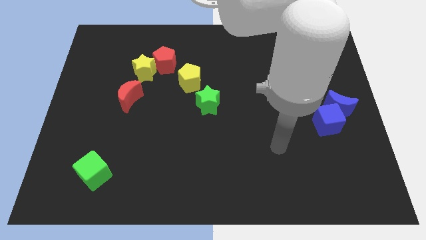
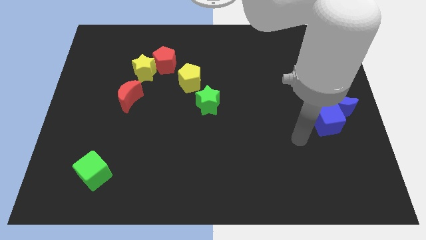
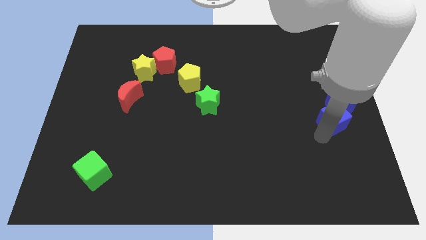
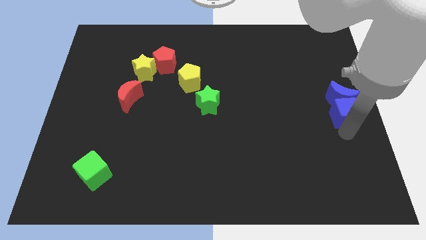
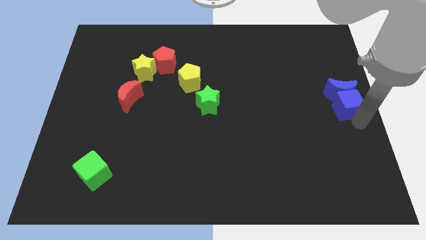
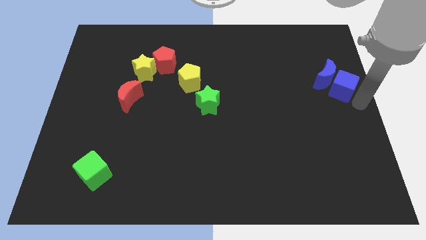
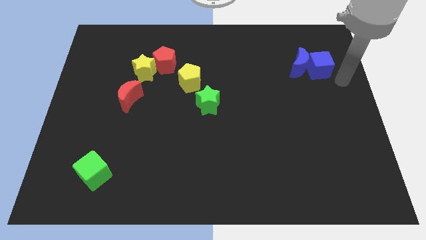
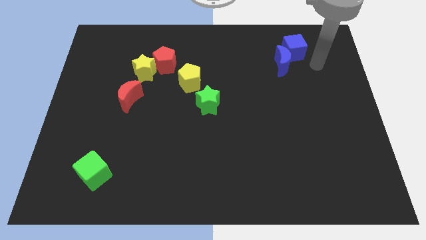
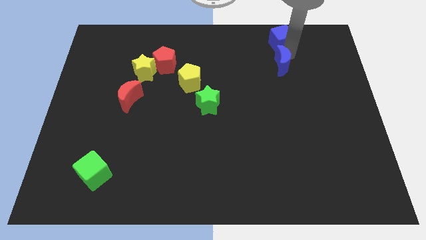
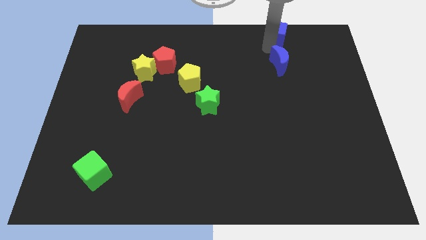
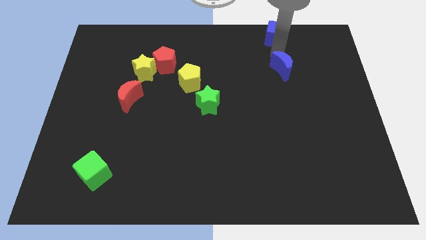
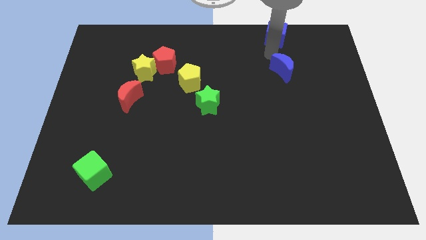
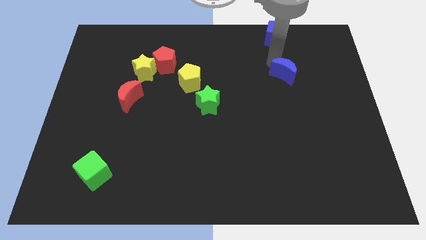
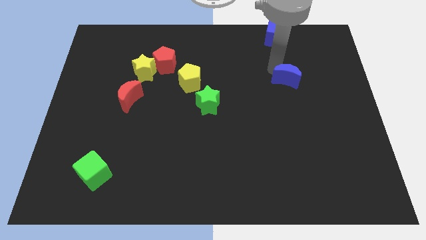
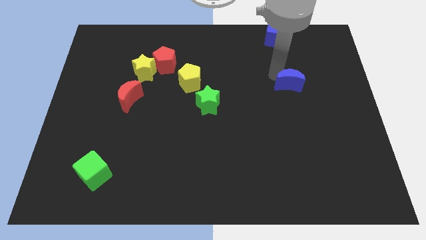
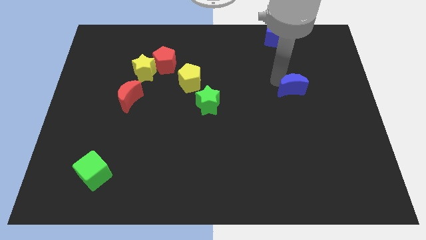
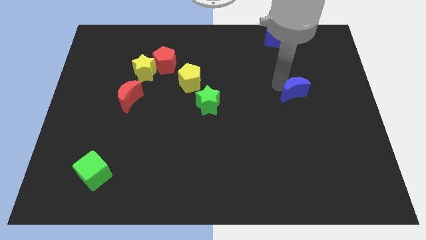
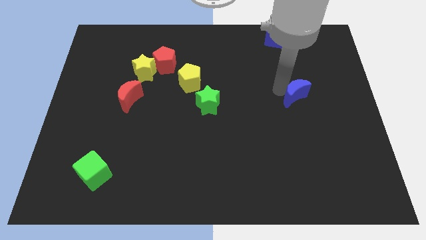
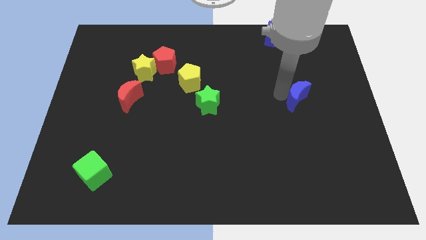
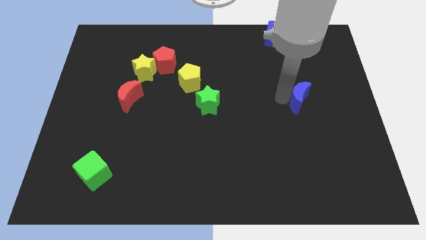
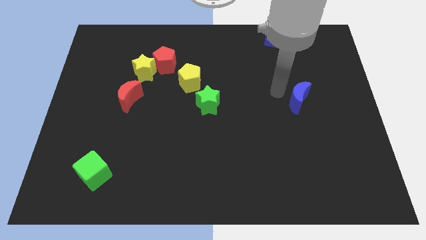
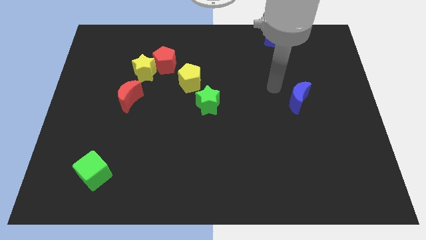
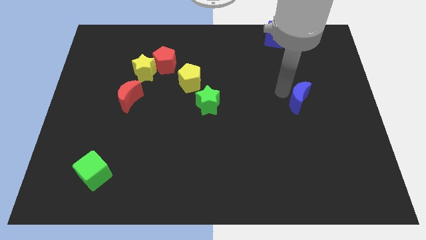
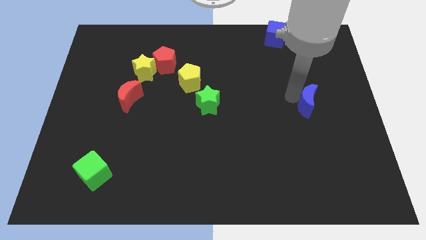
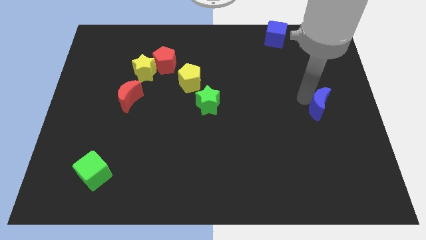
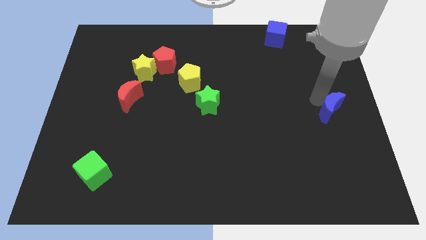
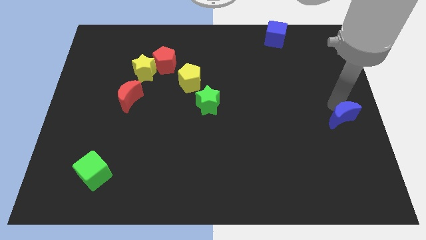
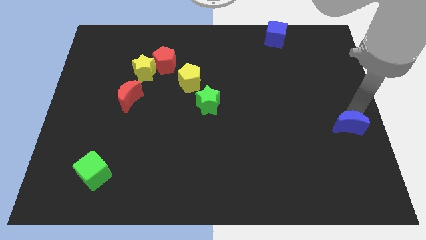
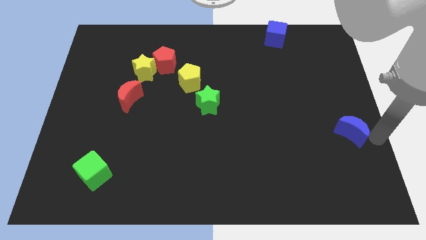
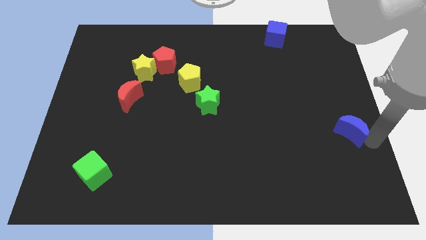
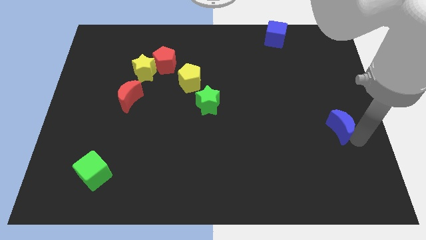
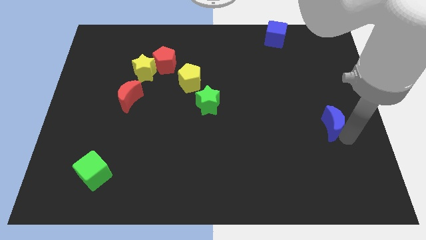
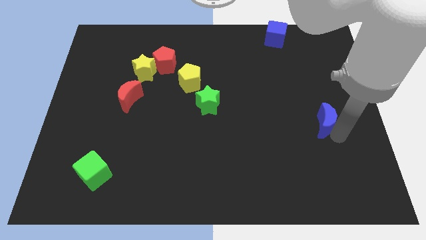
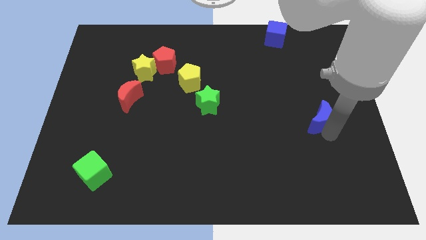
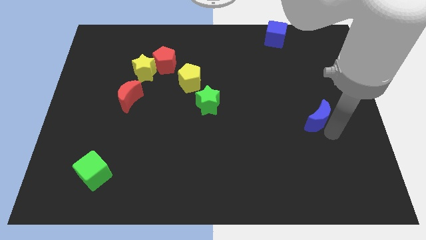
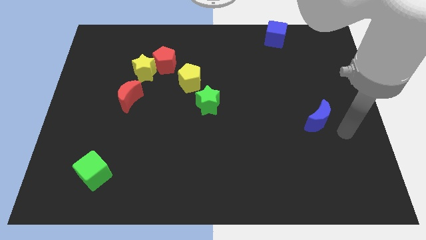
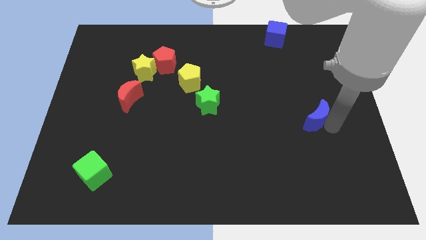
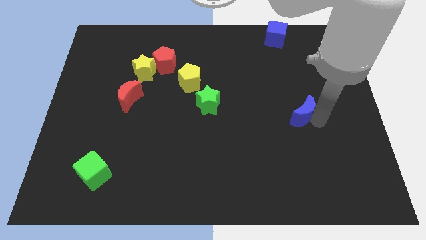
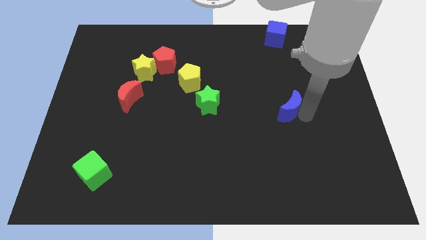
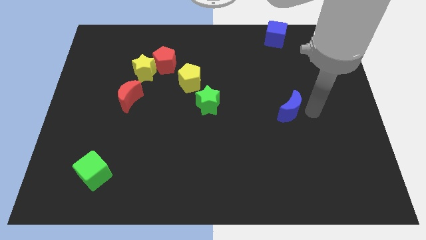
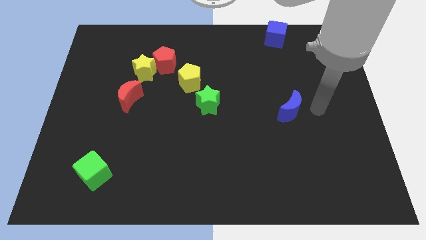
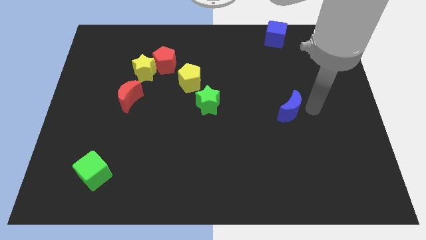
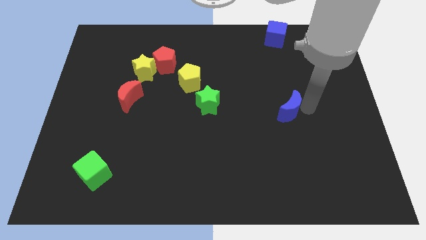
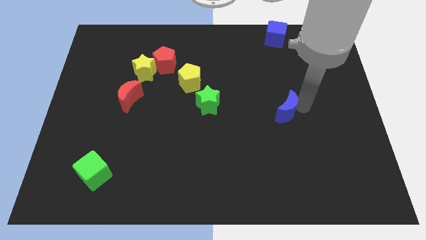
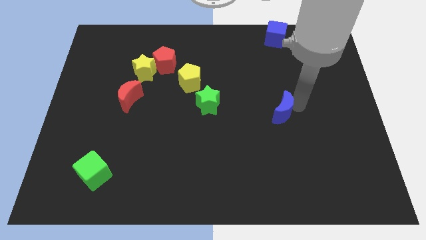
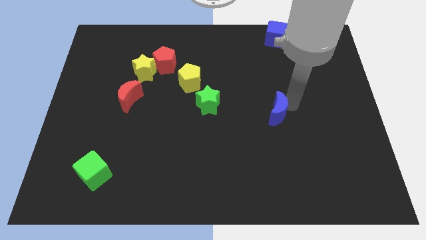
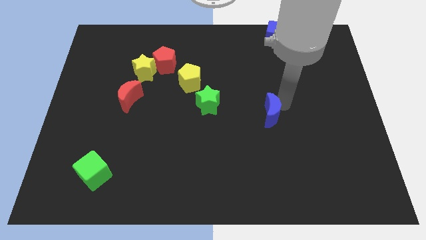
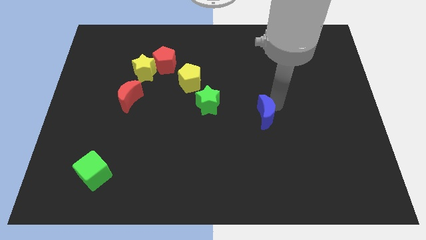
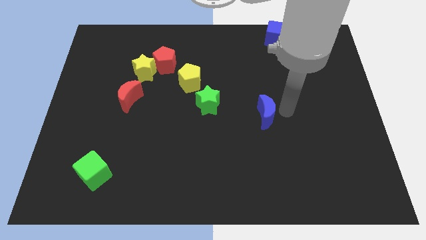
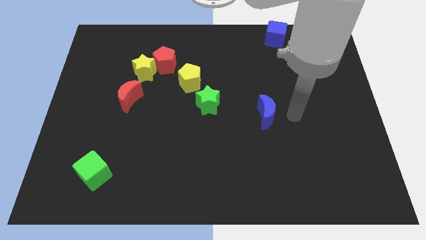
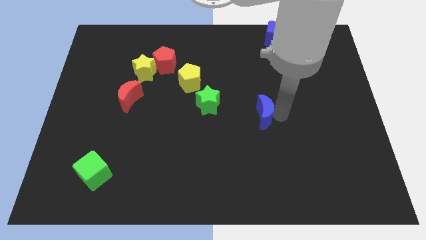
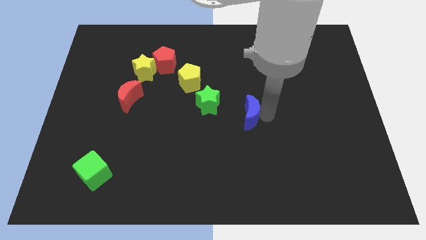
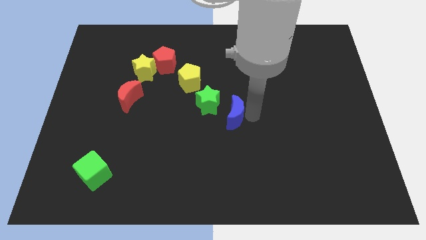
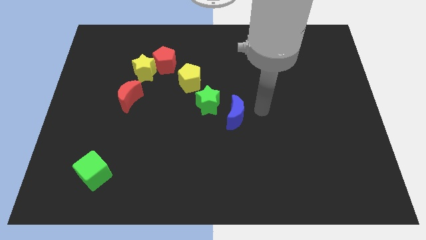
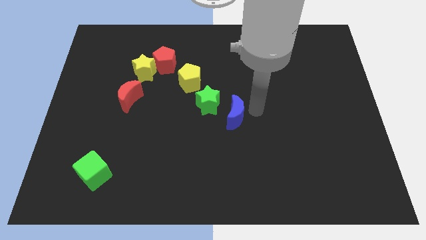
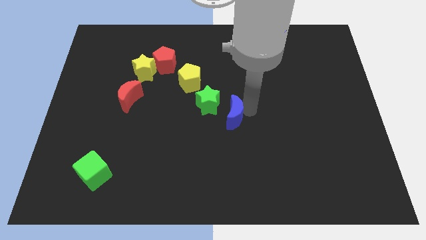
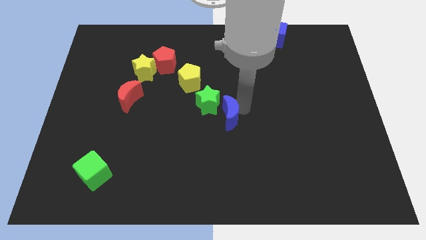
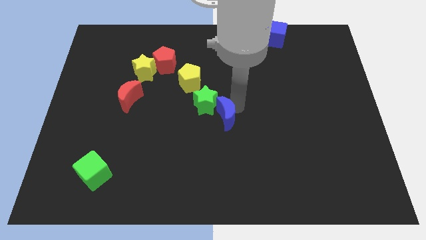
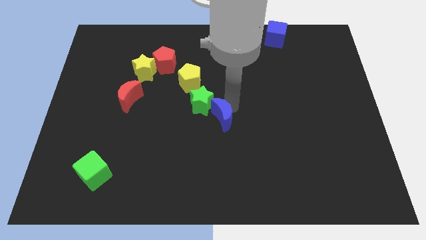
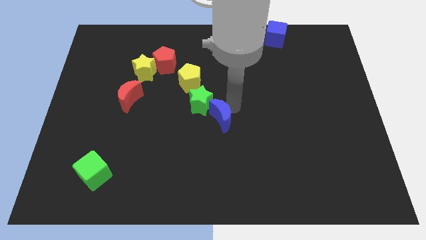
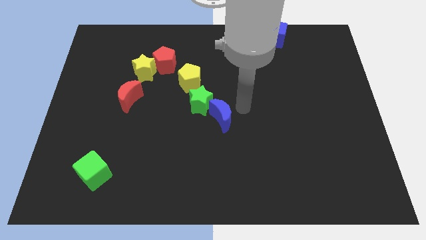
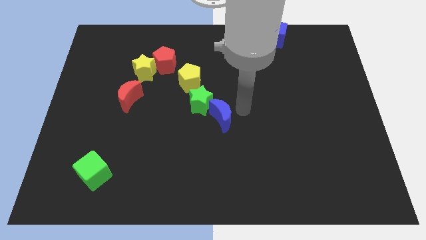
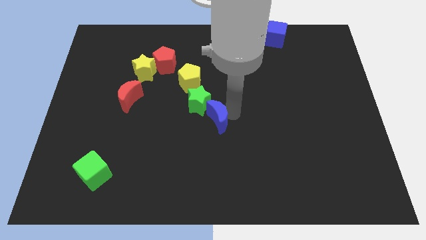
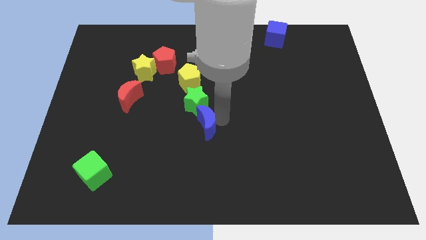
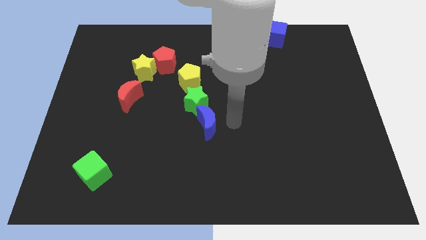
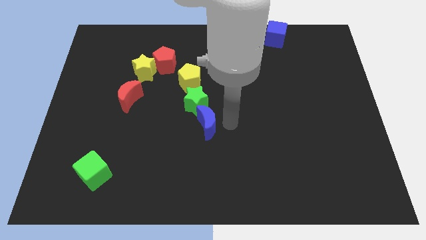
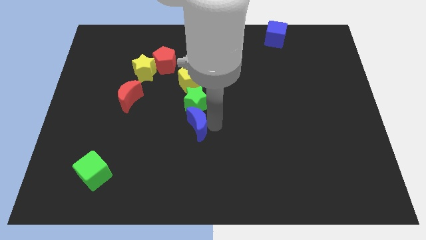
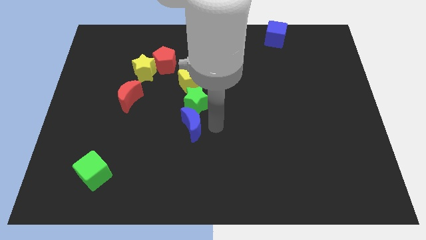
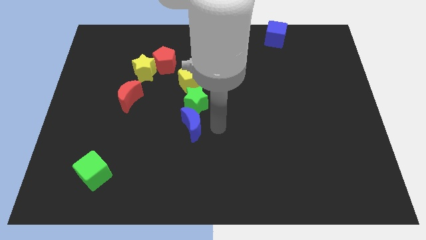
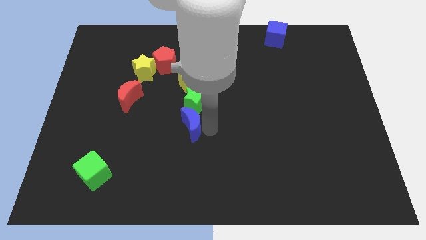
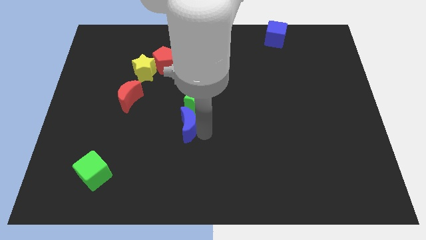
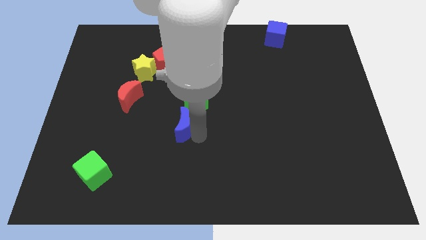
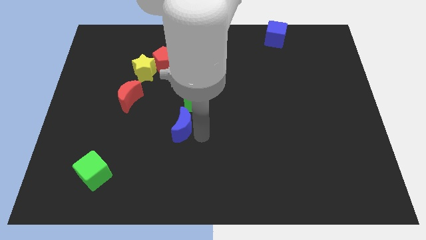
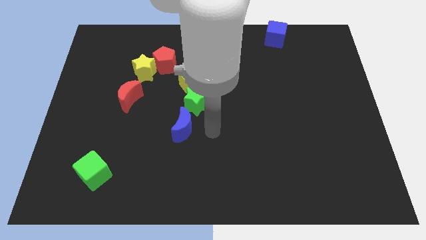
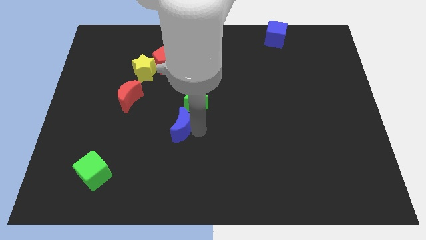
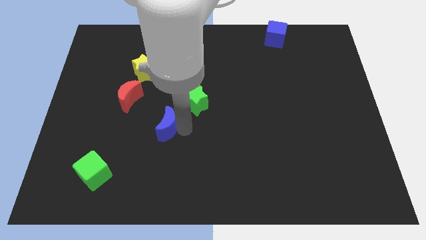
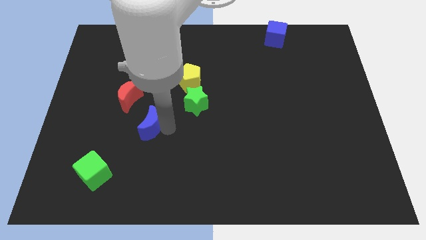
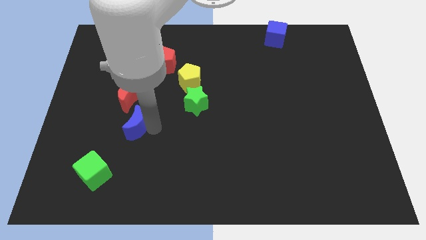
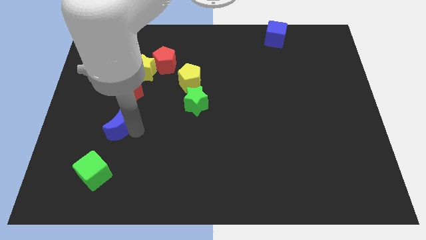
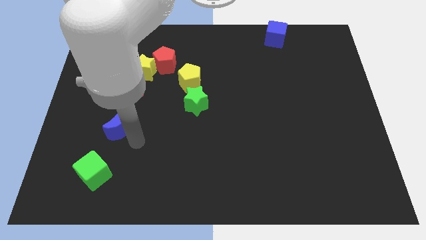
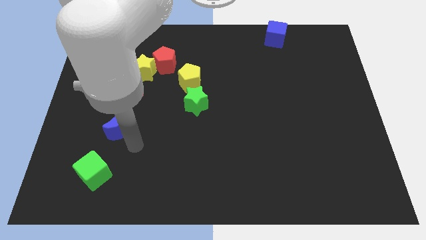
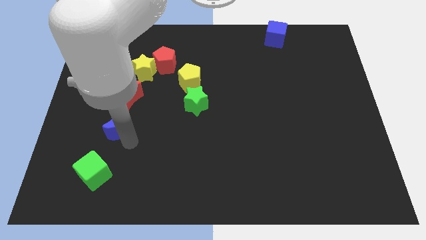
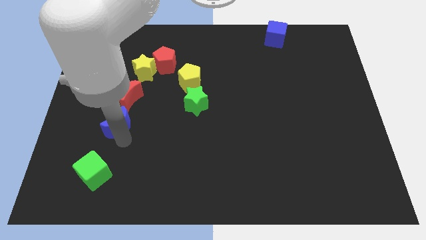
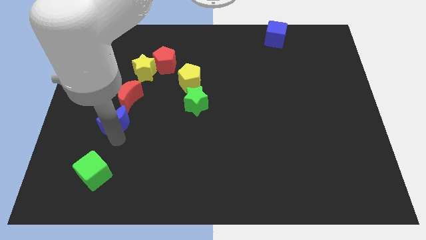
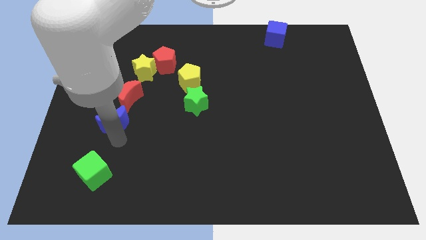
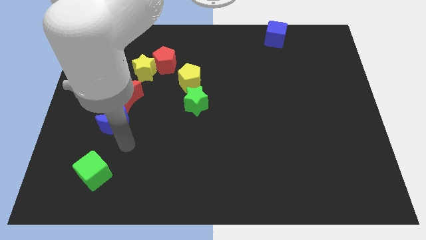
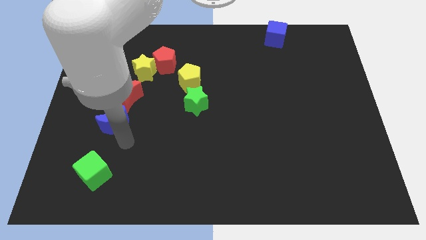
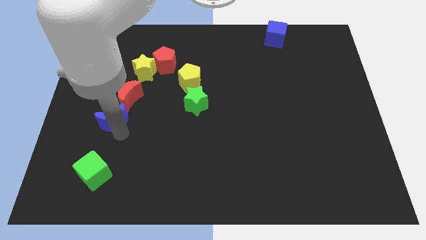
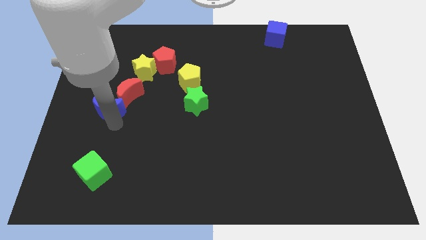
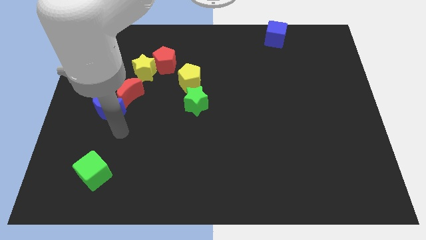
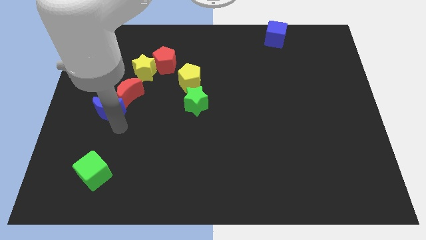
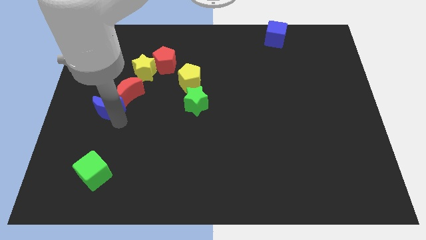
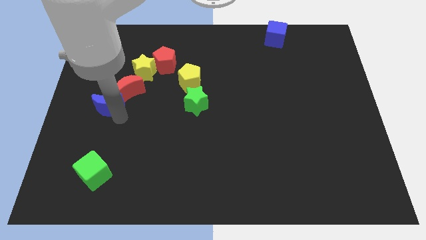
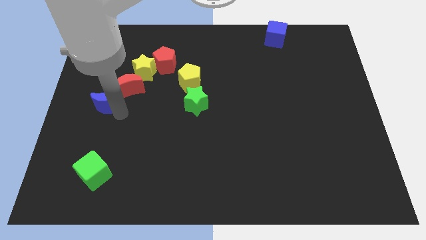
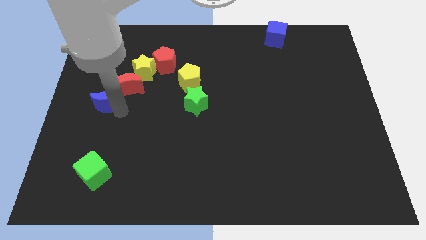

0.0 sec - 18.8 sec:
put the blue moon to the bottom left side of the yellow star
